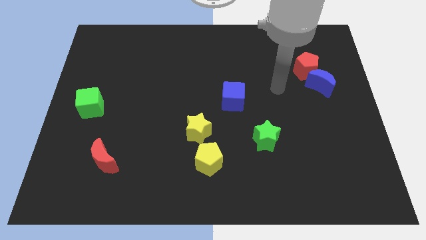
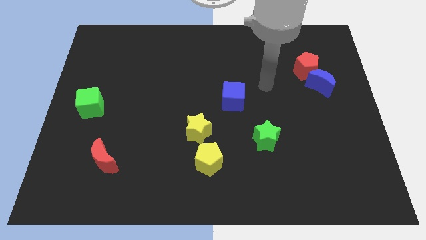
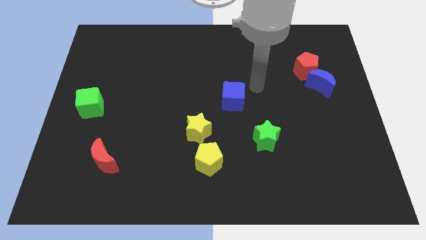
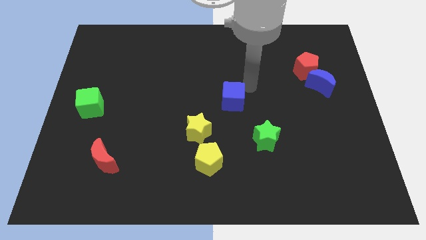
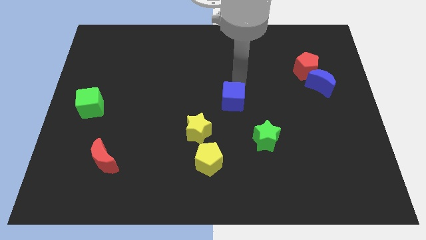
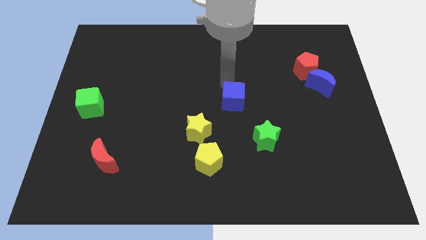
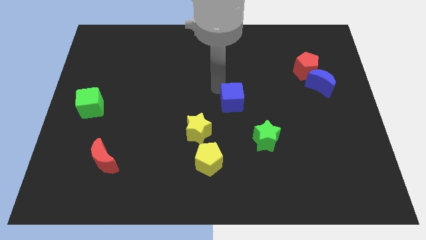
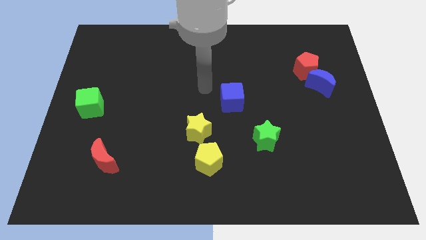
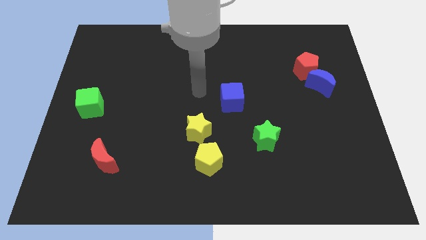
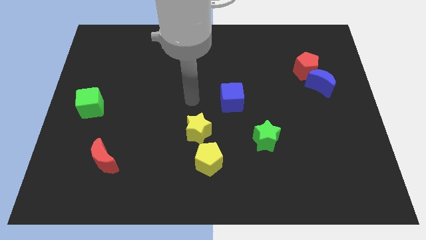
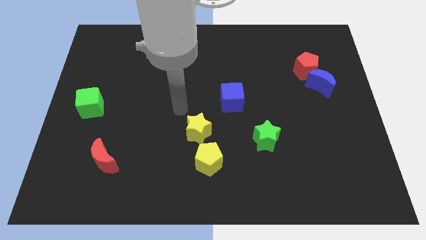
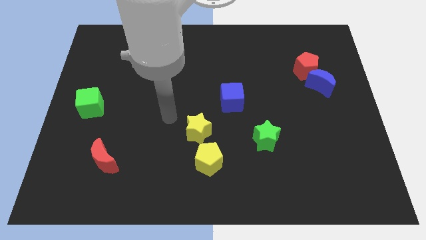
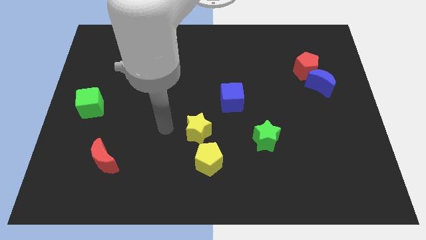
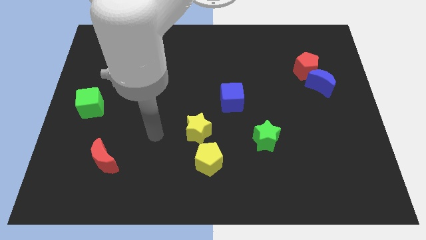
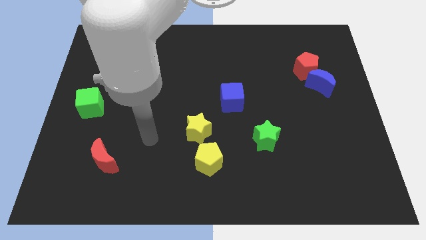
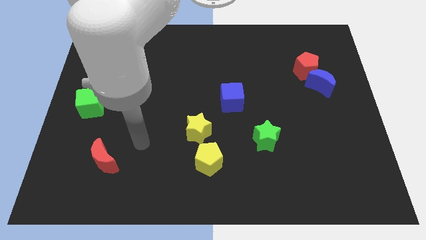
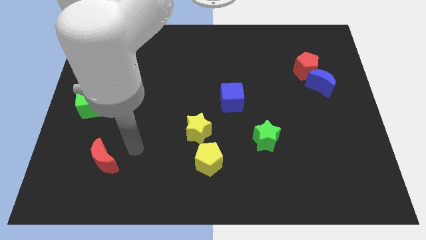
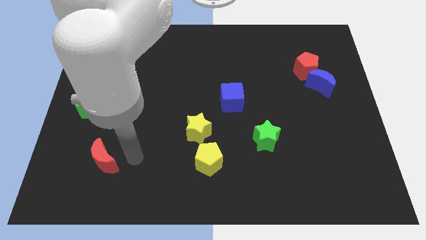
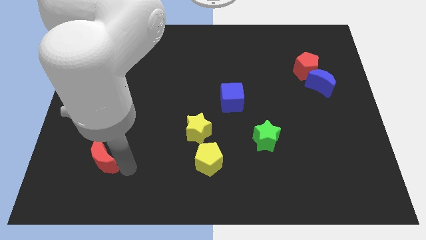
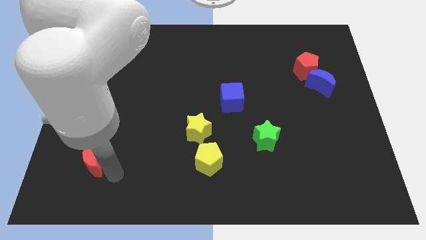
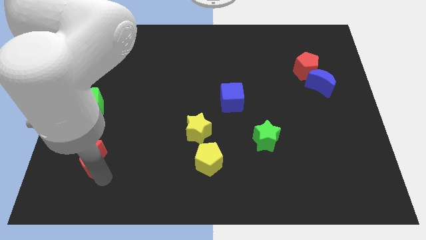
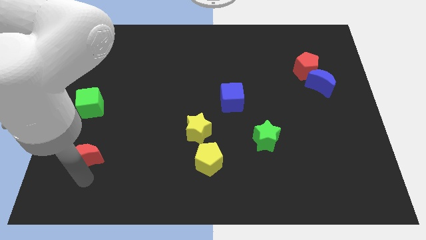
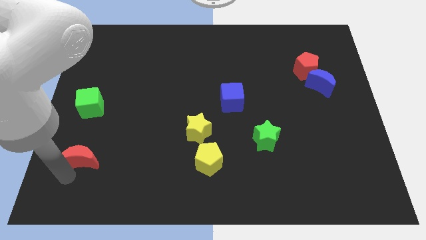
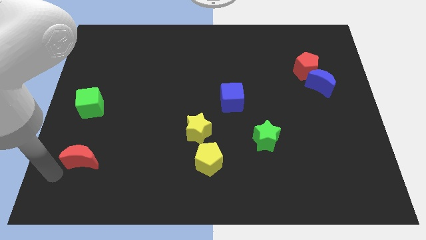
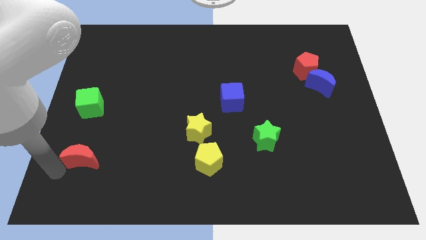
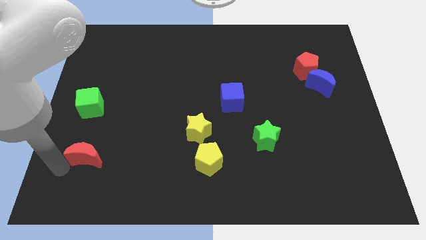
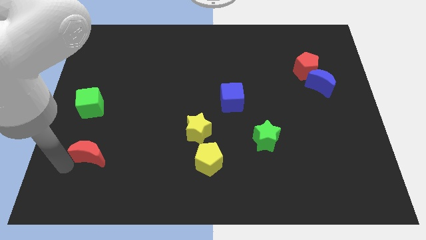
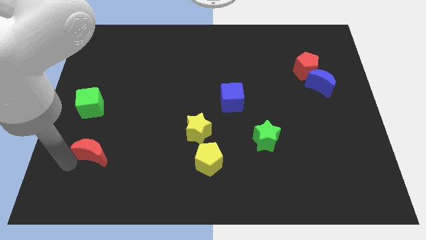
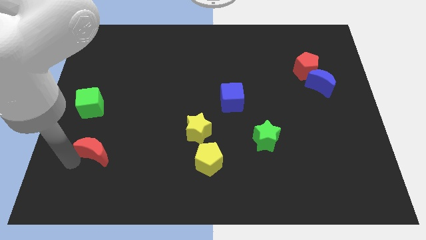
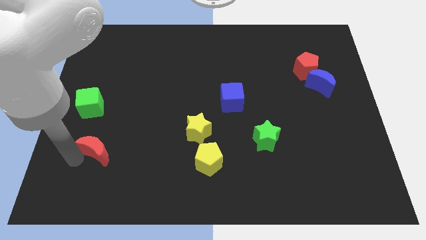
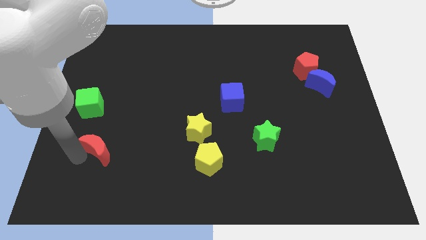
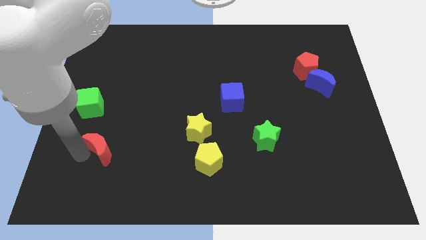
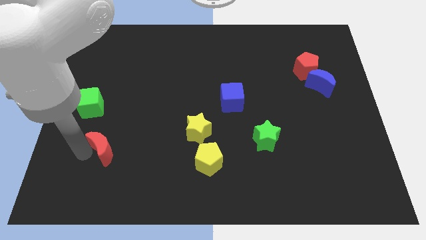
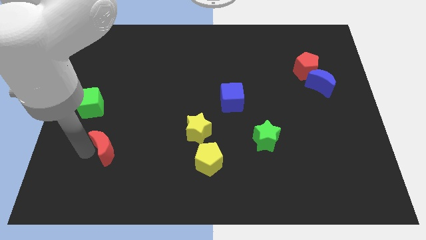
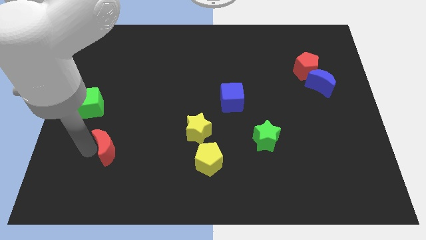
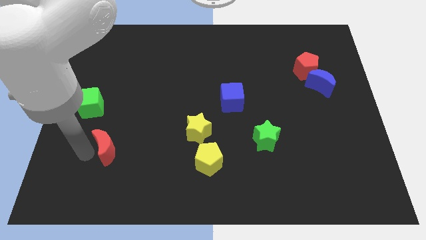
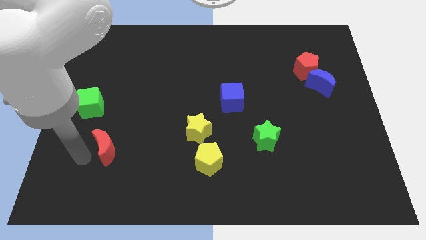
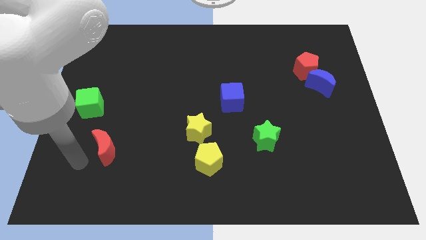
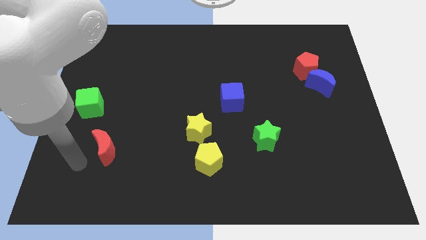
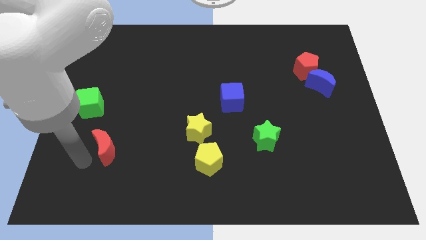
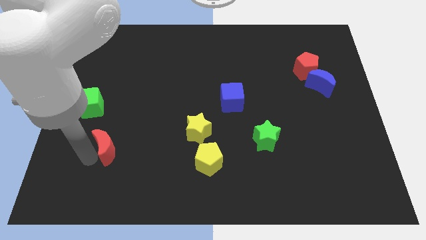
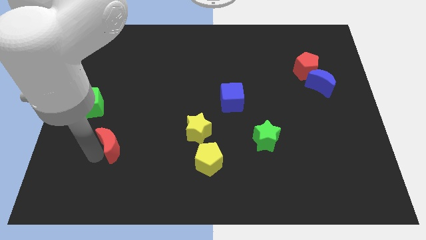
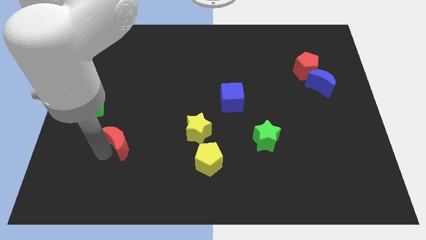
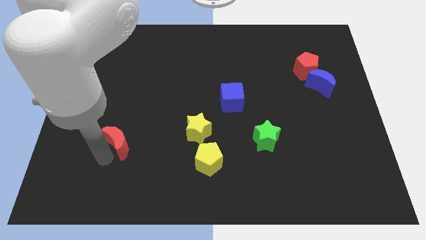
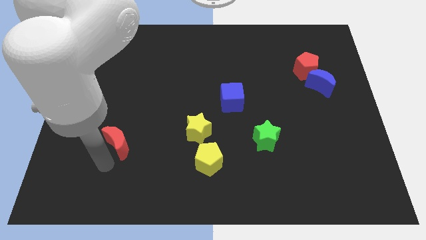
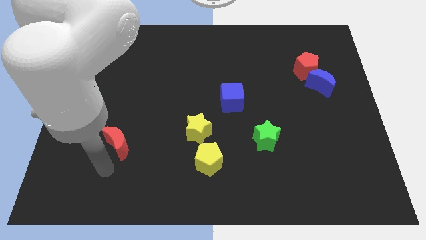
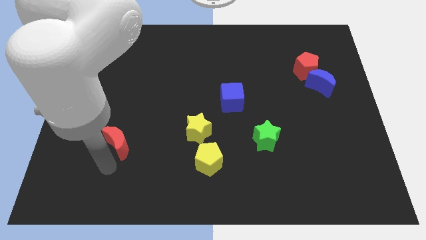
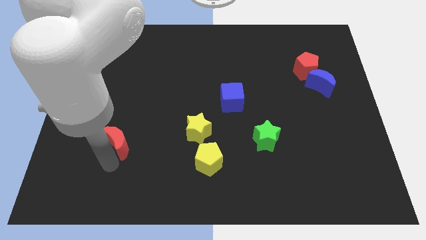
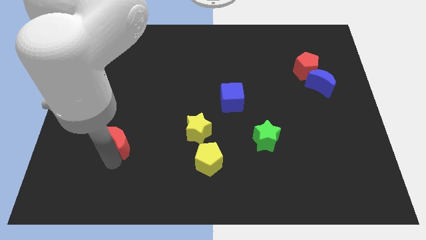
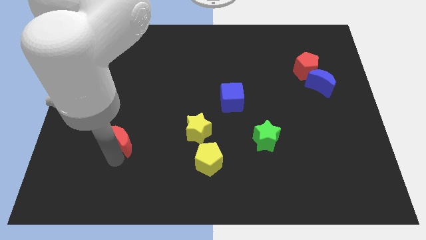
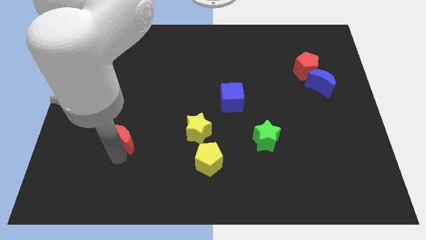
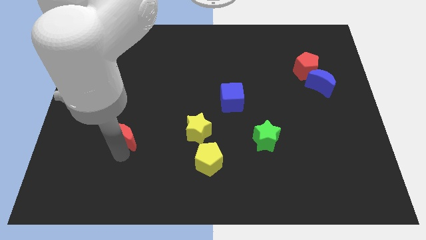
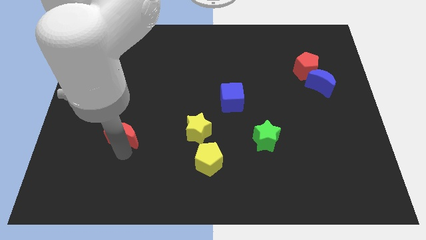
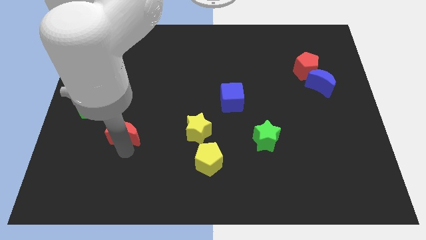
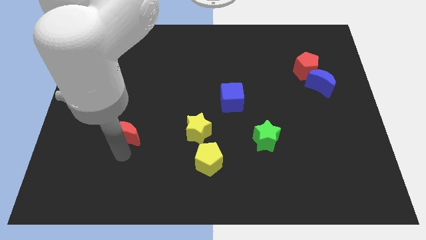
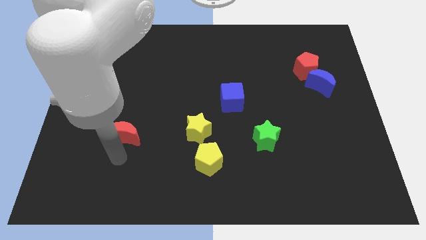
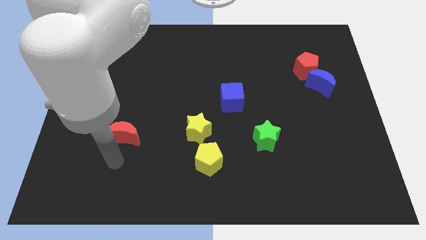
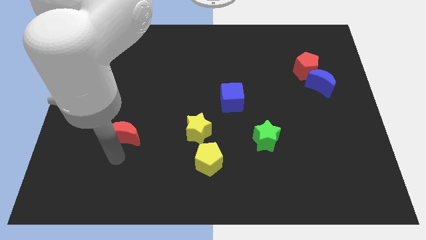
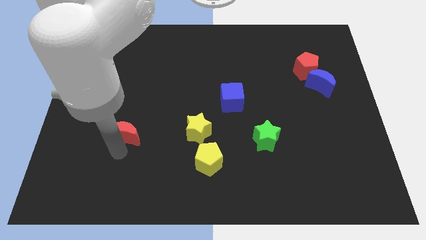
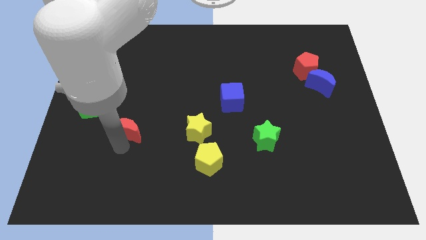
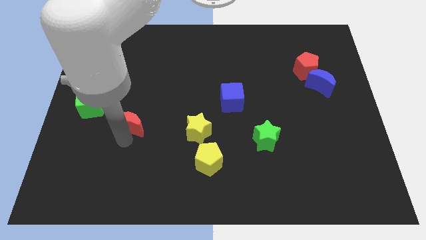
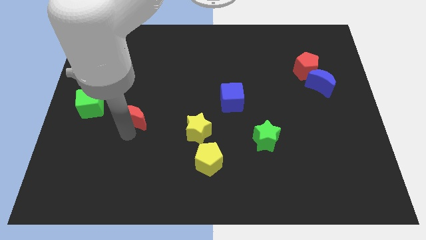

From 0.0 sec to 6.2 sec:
push the red moon to the right of the green cube
